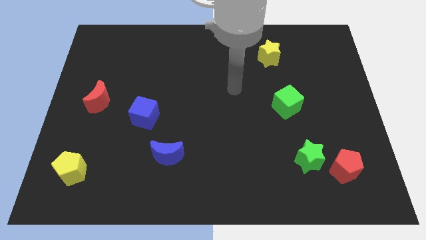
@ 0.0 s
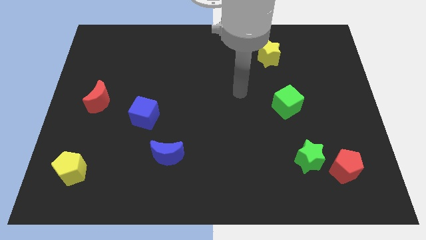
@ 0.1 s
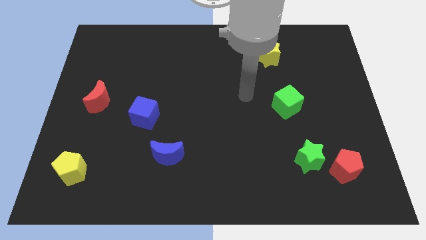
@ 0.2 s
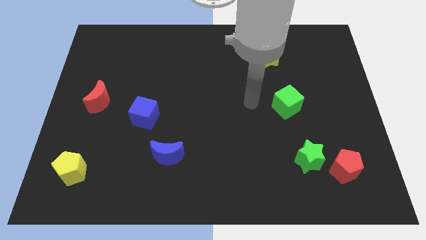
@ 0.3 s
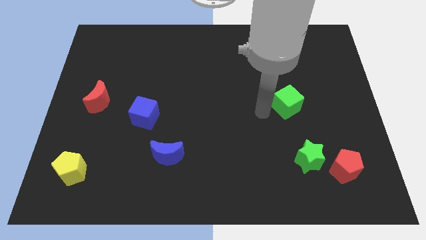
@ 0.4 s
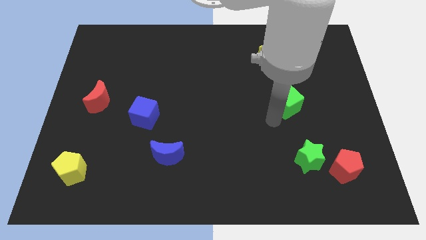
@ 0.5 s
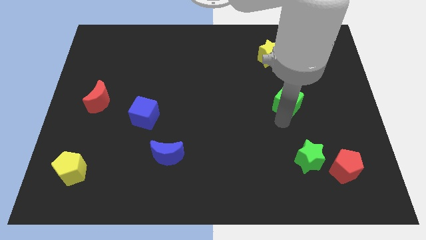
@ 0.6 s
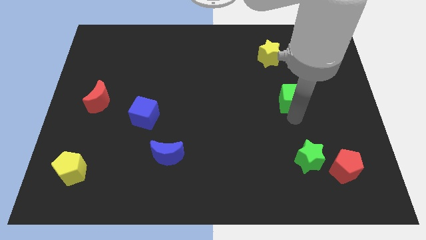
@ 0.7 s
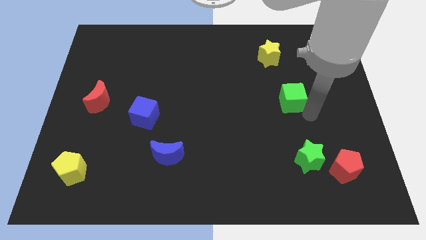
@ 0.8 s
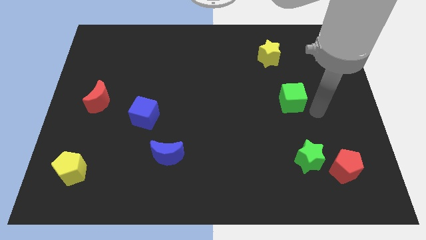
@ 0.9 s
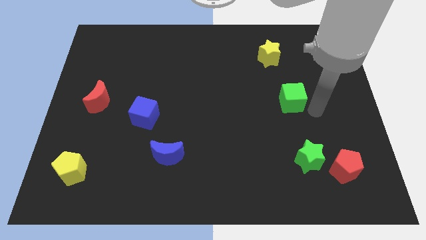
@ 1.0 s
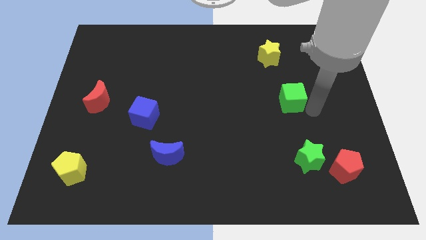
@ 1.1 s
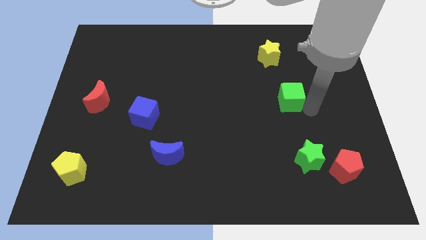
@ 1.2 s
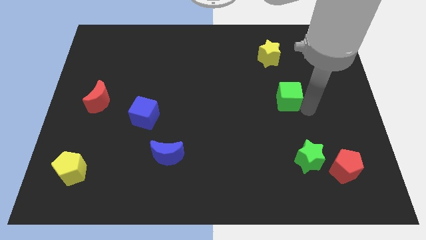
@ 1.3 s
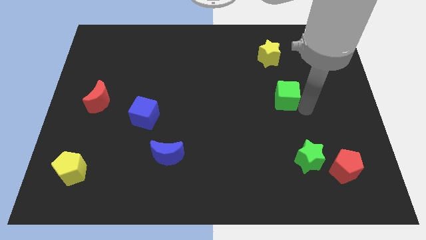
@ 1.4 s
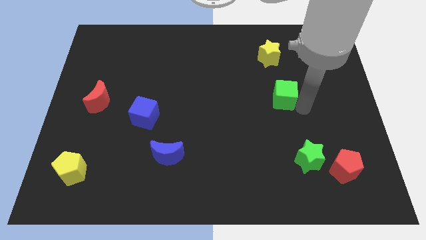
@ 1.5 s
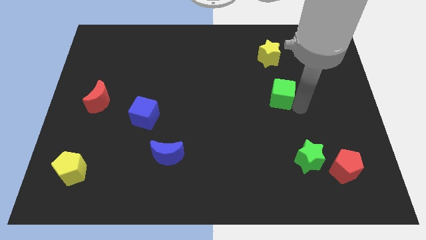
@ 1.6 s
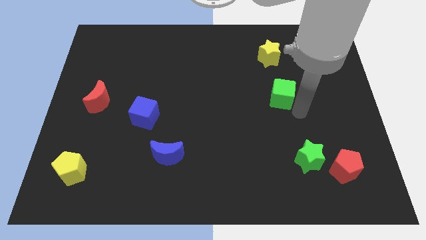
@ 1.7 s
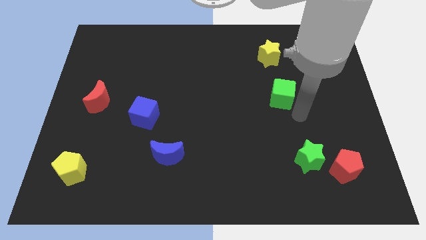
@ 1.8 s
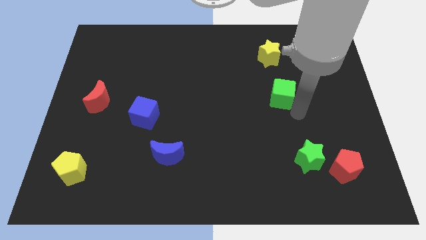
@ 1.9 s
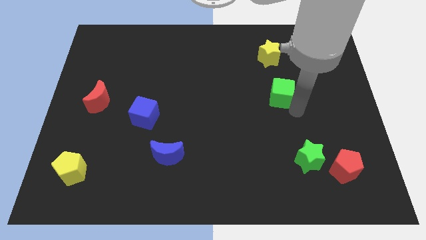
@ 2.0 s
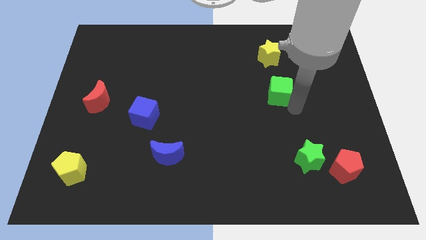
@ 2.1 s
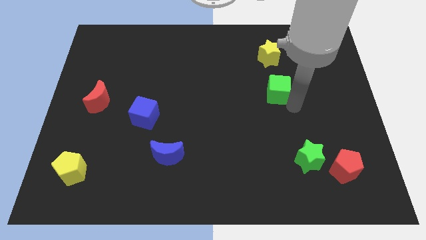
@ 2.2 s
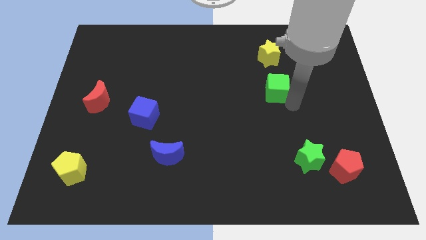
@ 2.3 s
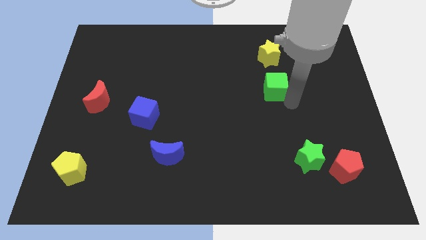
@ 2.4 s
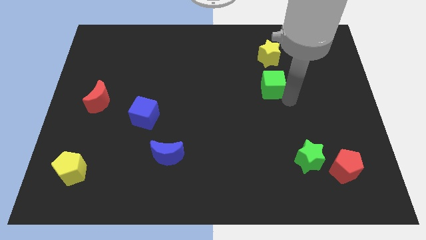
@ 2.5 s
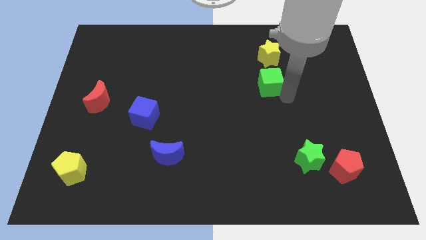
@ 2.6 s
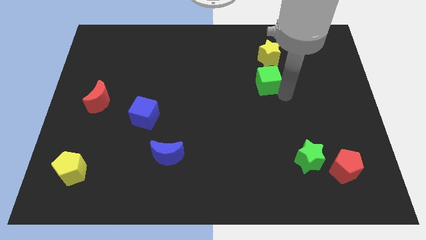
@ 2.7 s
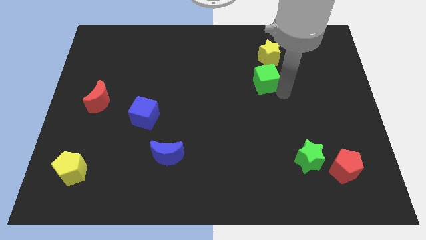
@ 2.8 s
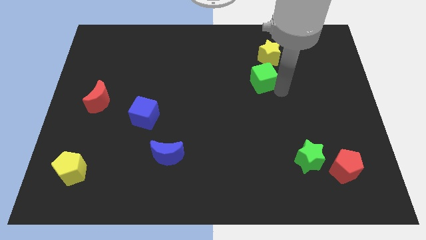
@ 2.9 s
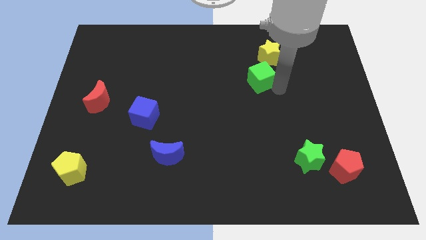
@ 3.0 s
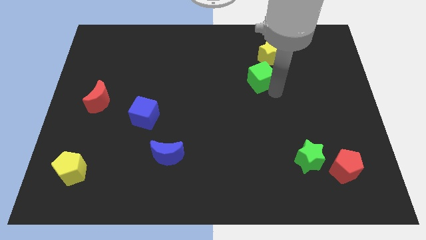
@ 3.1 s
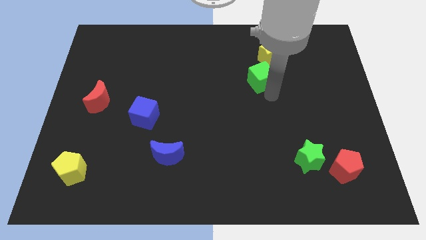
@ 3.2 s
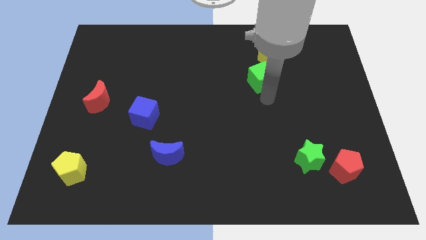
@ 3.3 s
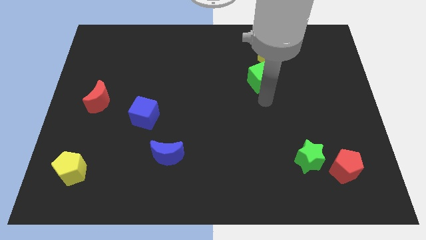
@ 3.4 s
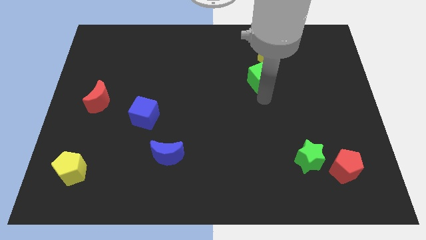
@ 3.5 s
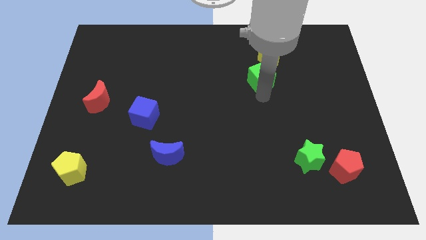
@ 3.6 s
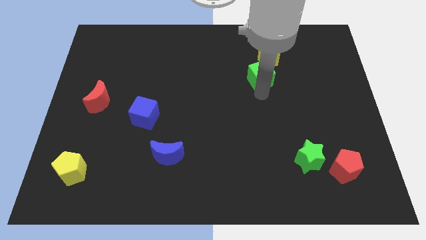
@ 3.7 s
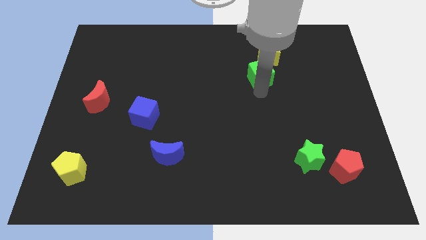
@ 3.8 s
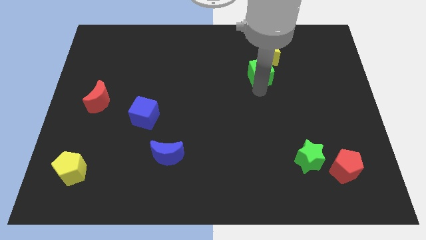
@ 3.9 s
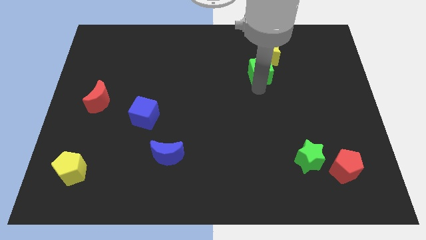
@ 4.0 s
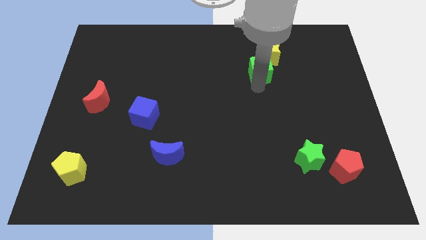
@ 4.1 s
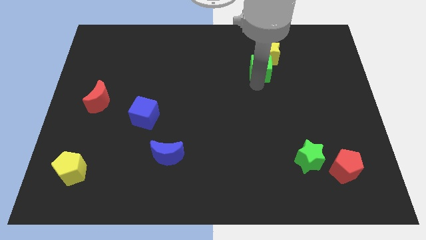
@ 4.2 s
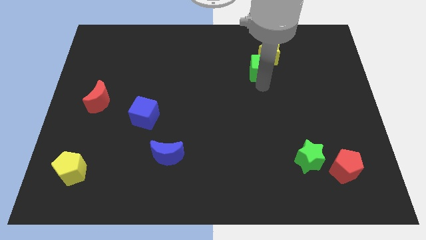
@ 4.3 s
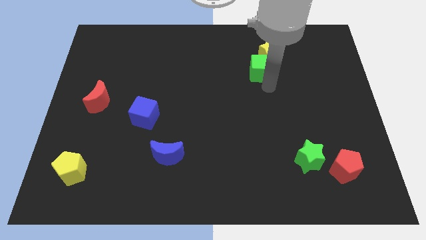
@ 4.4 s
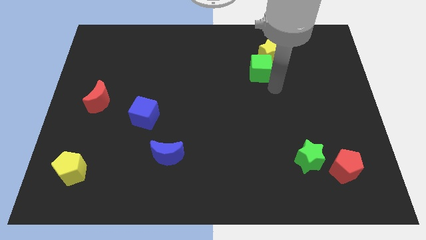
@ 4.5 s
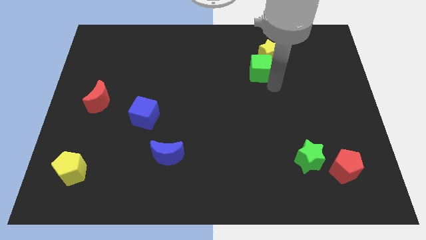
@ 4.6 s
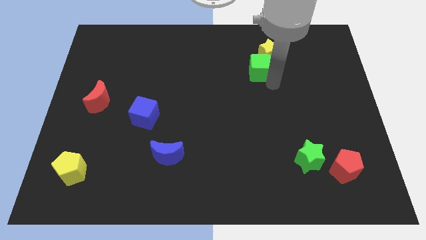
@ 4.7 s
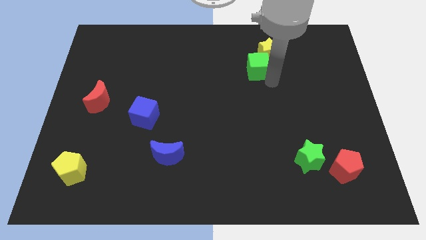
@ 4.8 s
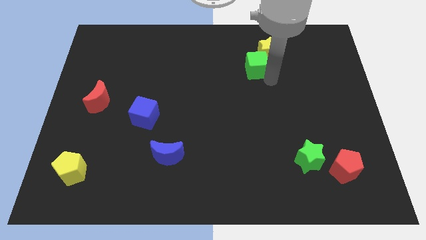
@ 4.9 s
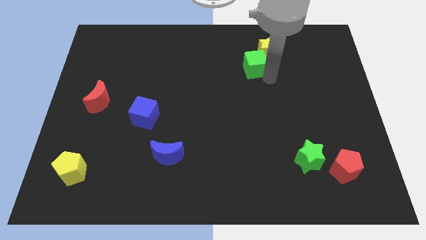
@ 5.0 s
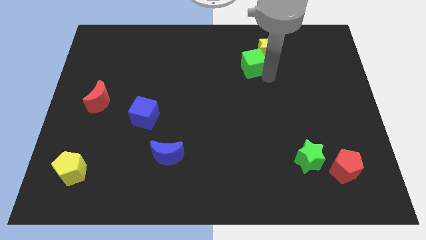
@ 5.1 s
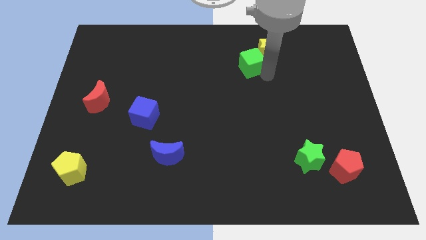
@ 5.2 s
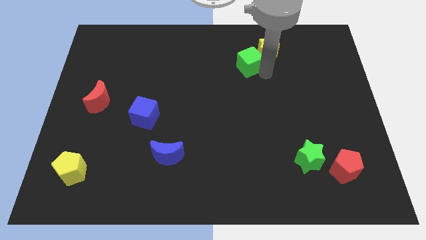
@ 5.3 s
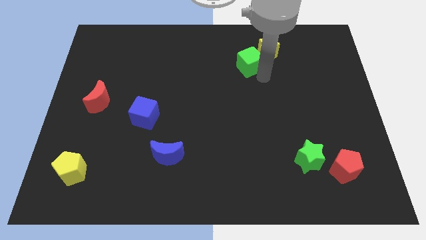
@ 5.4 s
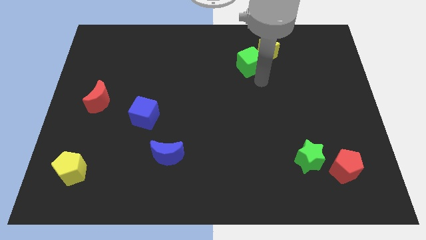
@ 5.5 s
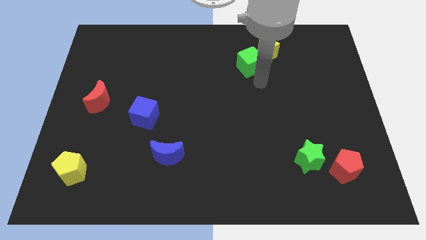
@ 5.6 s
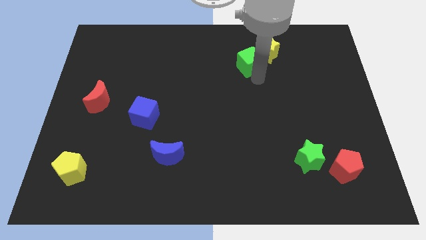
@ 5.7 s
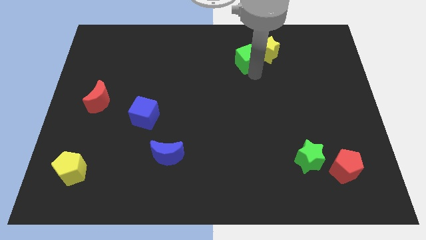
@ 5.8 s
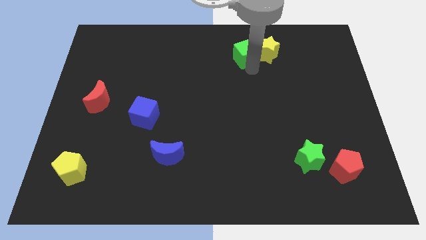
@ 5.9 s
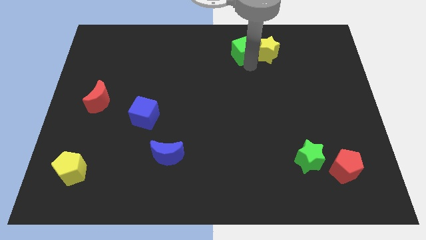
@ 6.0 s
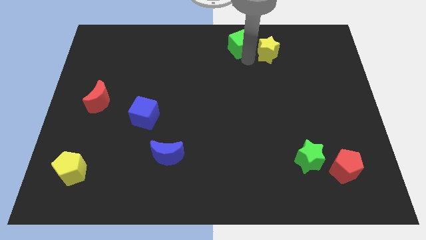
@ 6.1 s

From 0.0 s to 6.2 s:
put the green cube to the towards your base
